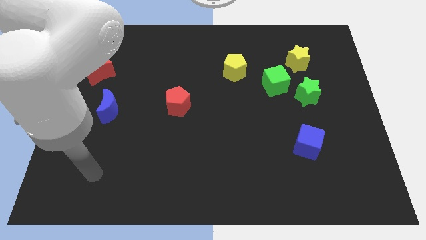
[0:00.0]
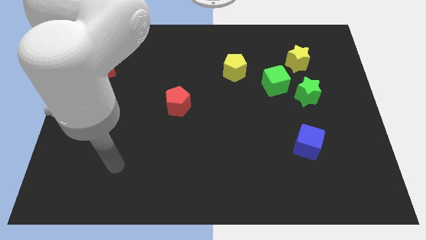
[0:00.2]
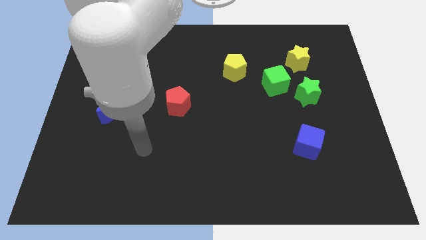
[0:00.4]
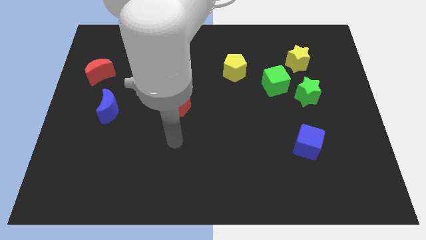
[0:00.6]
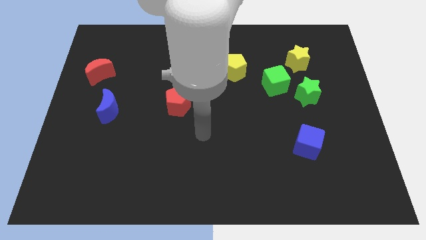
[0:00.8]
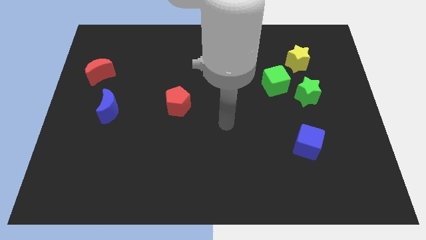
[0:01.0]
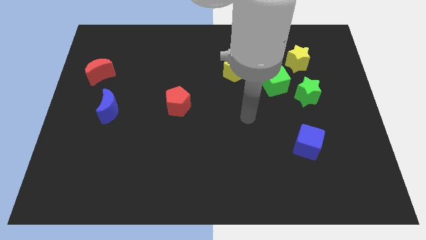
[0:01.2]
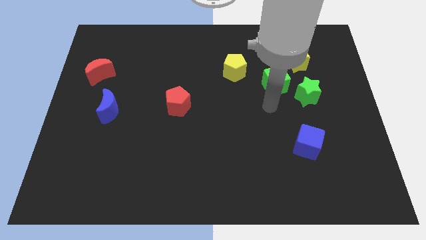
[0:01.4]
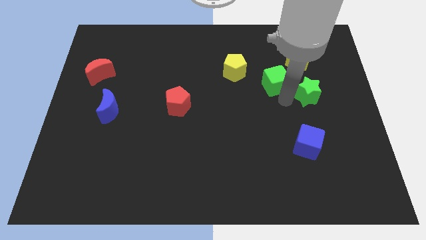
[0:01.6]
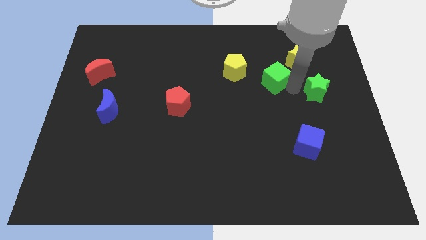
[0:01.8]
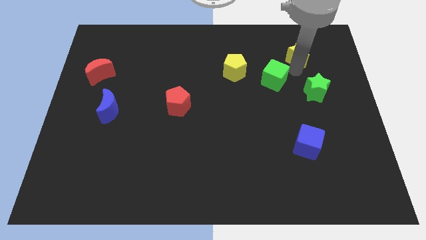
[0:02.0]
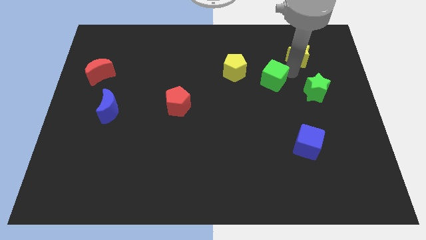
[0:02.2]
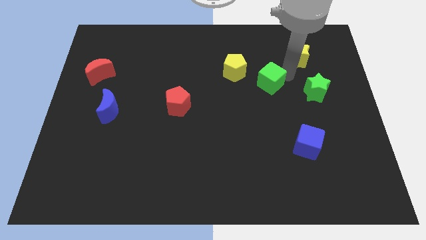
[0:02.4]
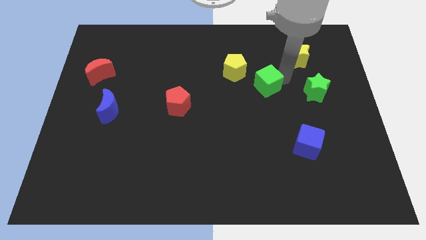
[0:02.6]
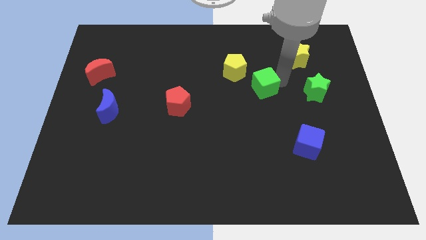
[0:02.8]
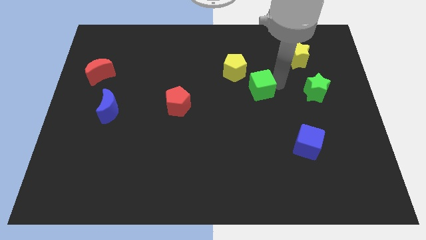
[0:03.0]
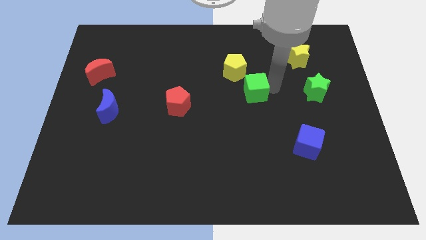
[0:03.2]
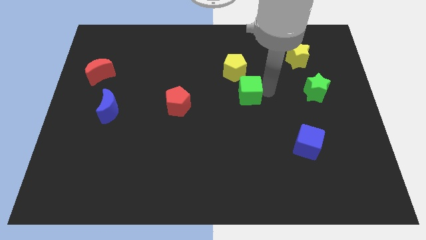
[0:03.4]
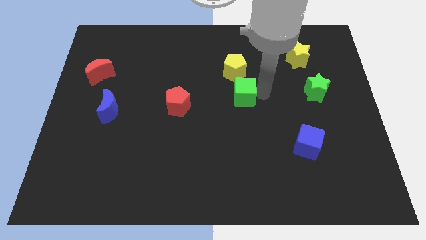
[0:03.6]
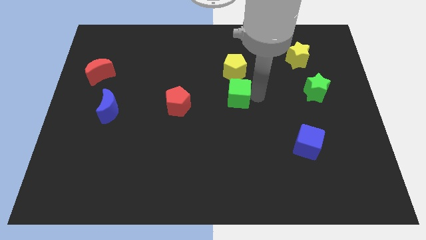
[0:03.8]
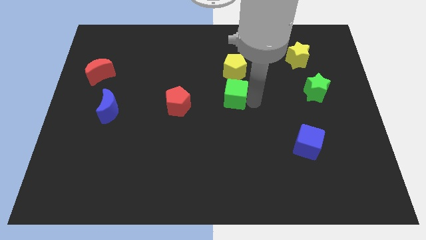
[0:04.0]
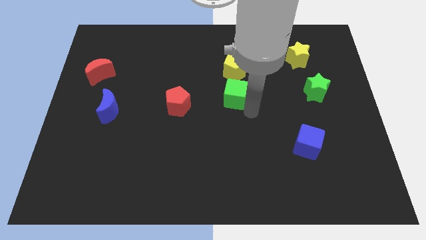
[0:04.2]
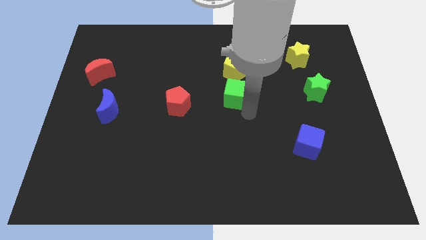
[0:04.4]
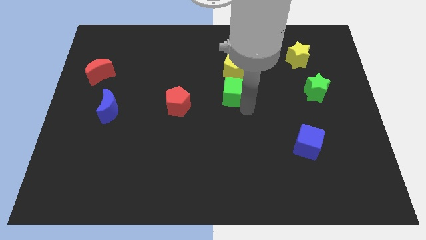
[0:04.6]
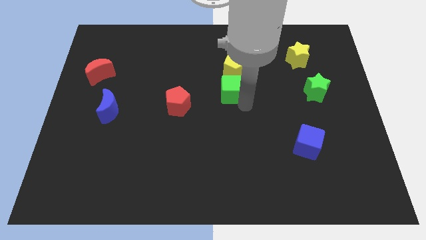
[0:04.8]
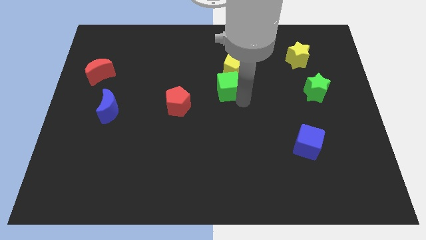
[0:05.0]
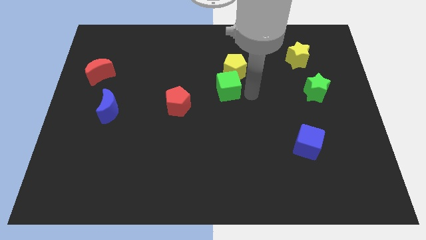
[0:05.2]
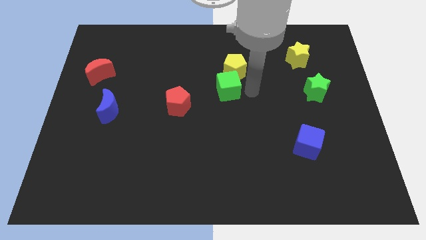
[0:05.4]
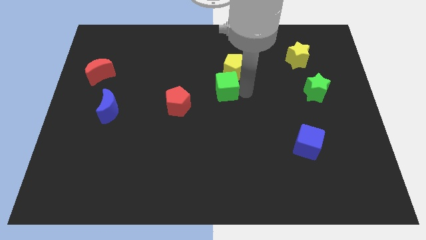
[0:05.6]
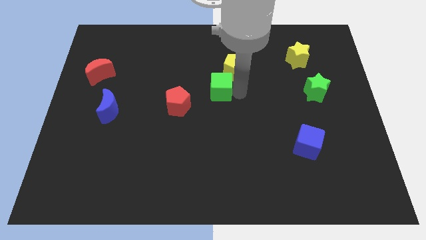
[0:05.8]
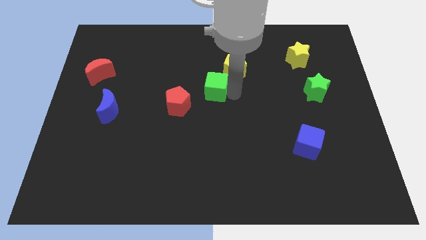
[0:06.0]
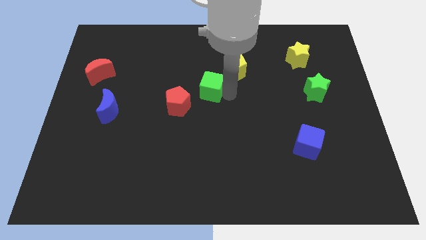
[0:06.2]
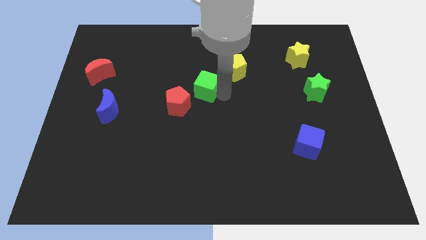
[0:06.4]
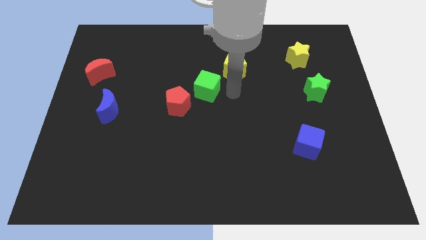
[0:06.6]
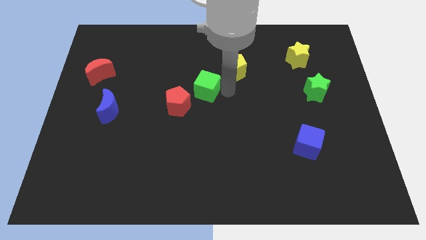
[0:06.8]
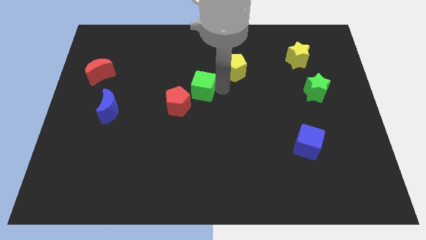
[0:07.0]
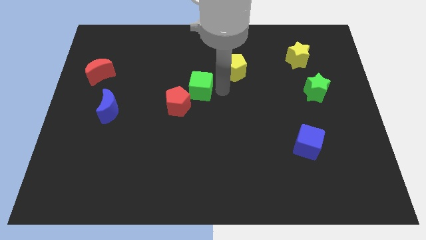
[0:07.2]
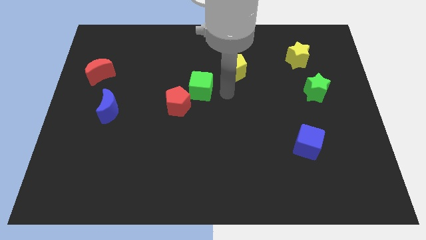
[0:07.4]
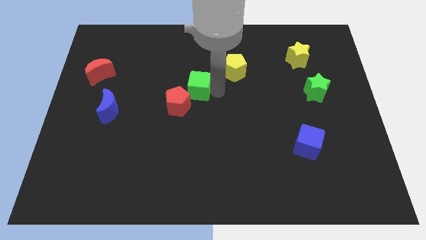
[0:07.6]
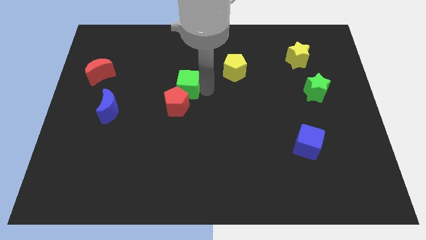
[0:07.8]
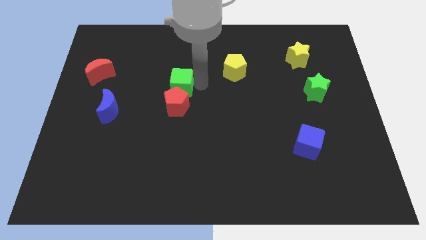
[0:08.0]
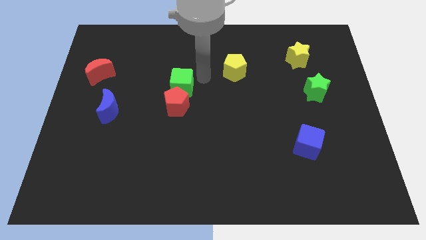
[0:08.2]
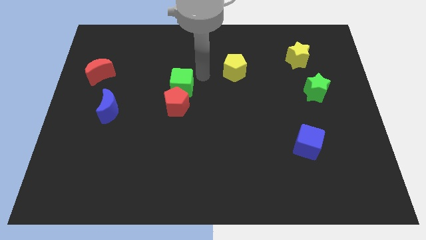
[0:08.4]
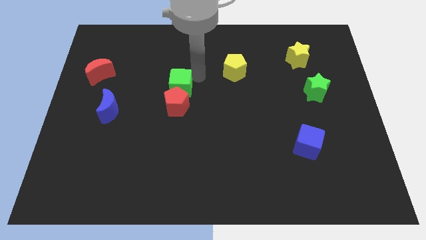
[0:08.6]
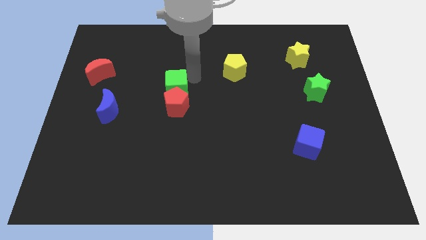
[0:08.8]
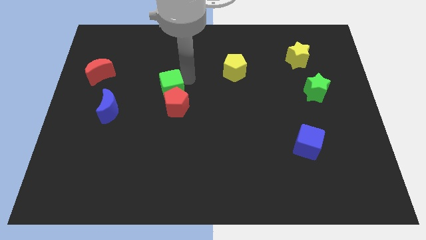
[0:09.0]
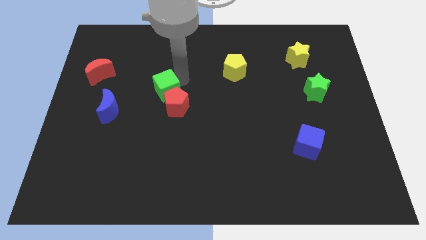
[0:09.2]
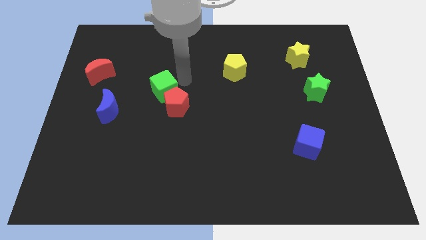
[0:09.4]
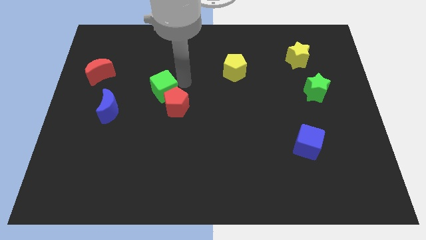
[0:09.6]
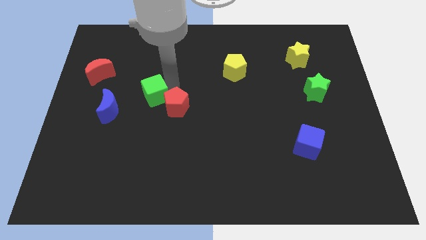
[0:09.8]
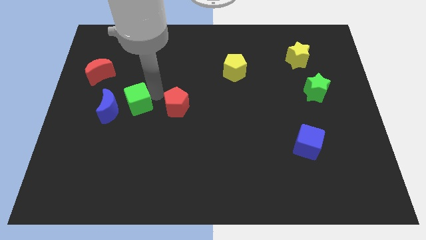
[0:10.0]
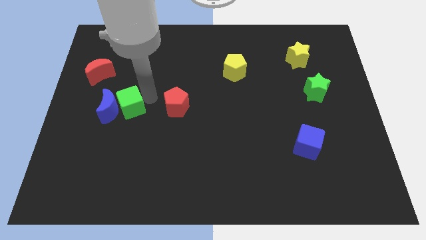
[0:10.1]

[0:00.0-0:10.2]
put the green cube next to the blue moon
